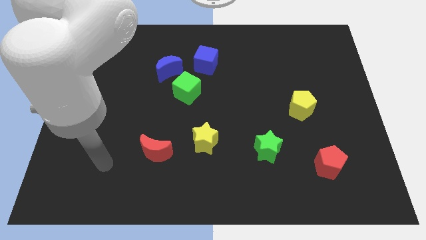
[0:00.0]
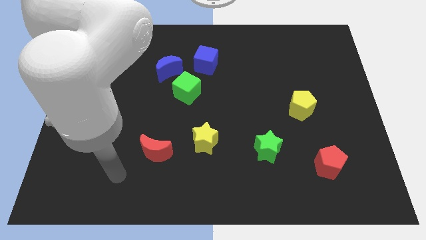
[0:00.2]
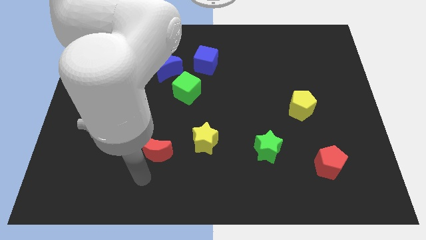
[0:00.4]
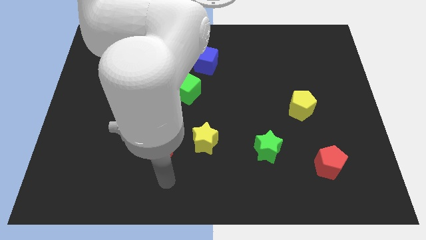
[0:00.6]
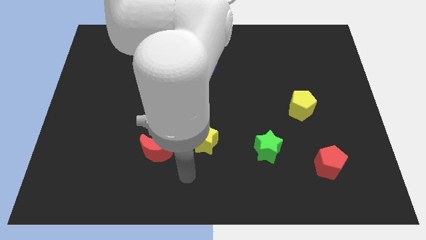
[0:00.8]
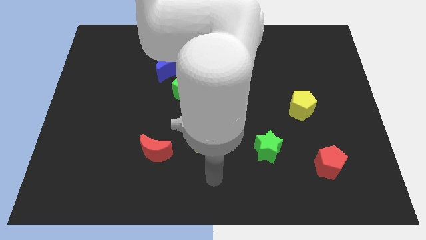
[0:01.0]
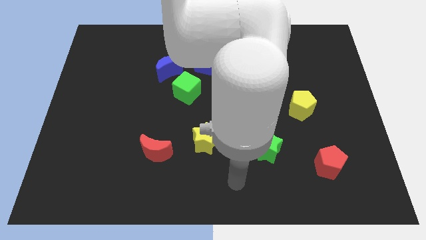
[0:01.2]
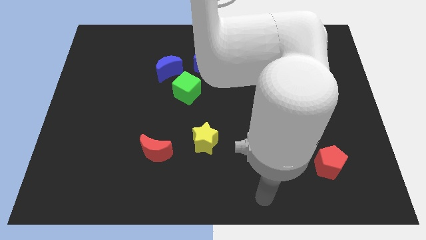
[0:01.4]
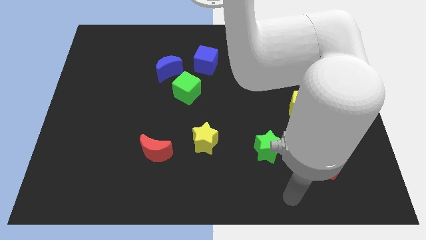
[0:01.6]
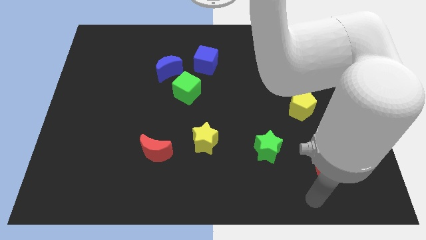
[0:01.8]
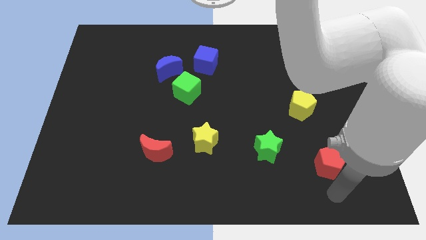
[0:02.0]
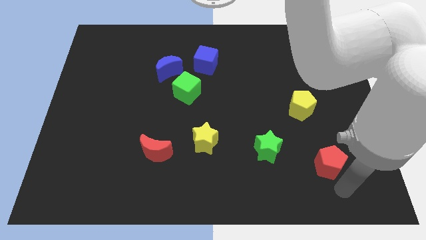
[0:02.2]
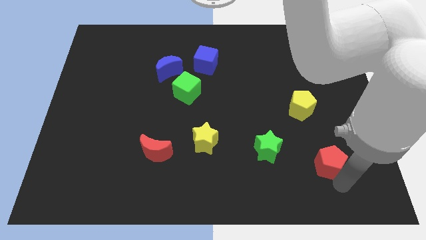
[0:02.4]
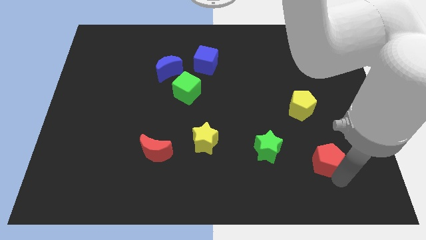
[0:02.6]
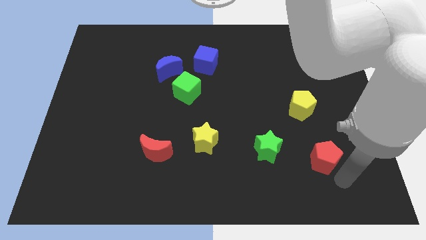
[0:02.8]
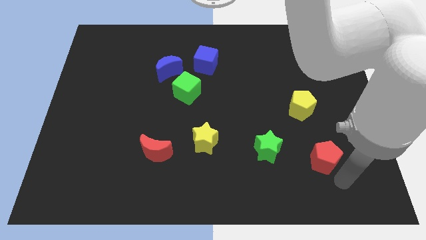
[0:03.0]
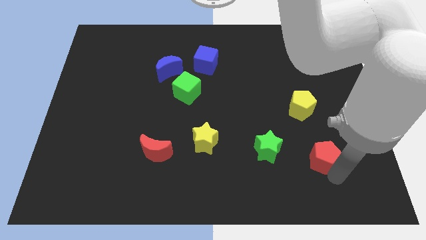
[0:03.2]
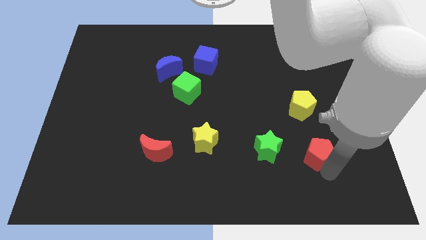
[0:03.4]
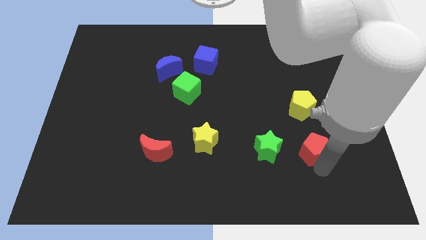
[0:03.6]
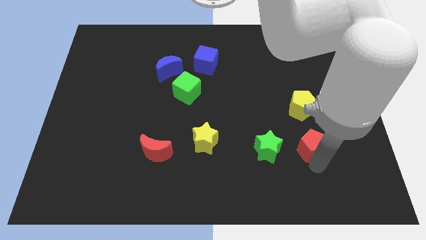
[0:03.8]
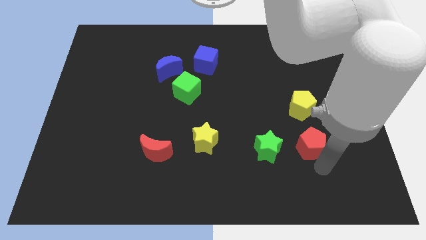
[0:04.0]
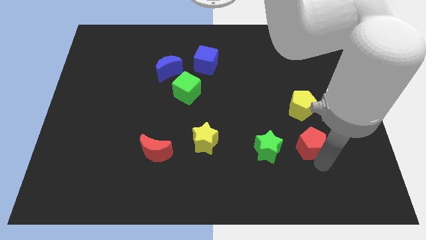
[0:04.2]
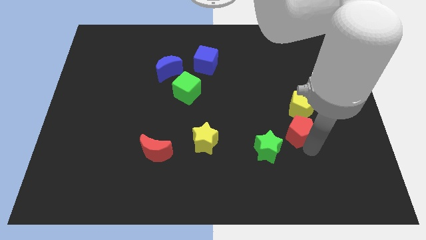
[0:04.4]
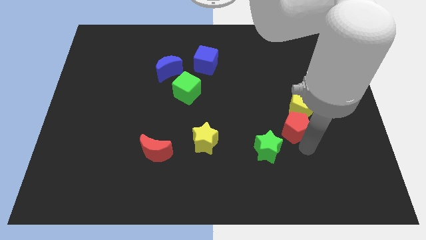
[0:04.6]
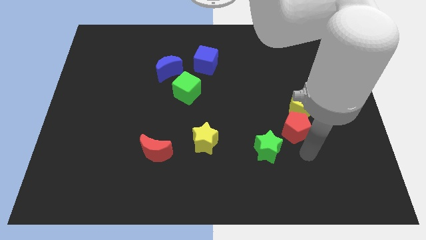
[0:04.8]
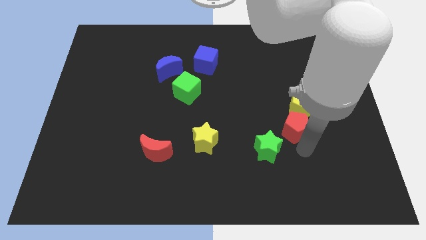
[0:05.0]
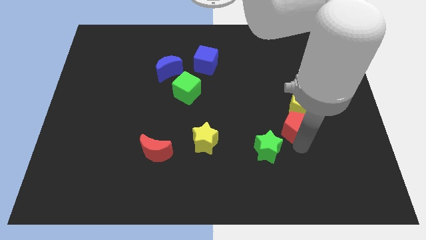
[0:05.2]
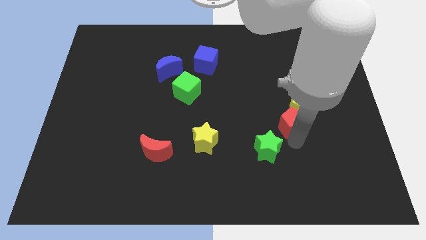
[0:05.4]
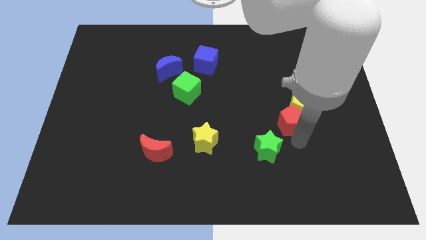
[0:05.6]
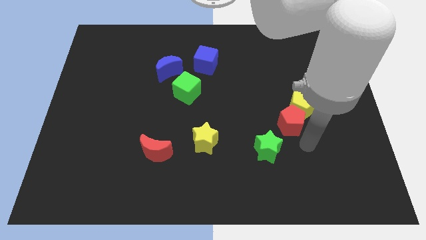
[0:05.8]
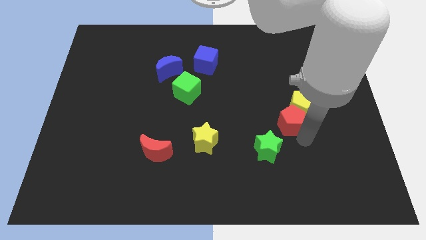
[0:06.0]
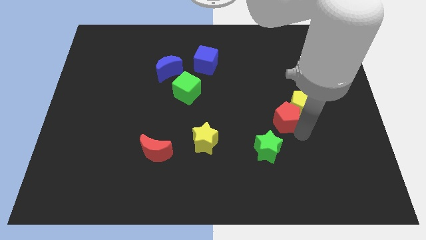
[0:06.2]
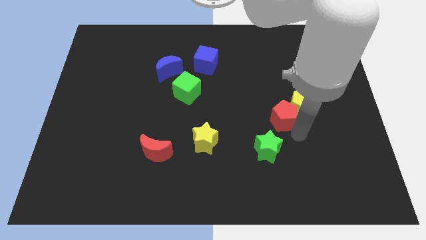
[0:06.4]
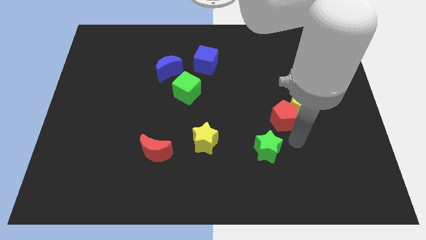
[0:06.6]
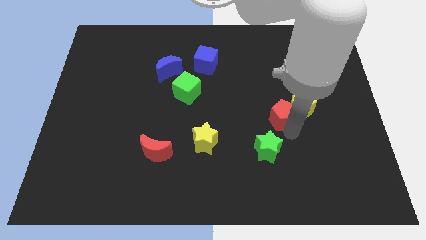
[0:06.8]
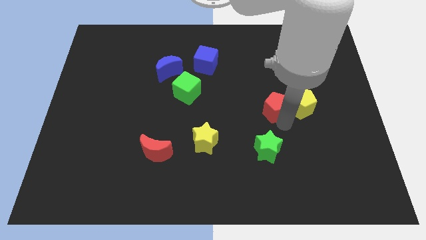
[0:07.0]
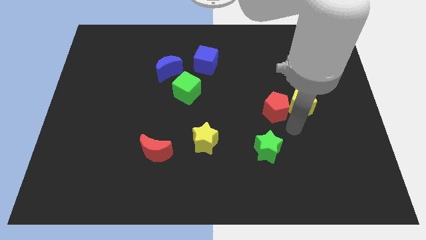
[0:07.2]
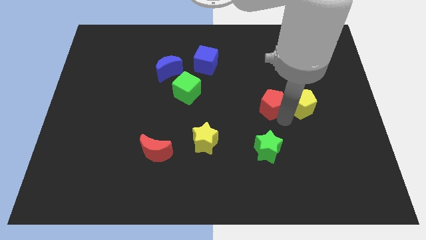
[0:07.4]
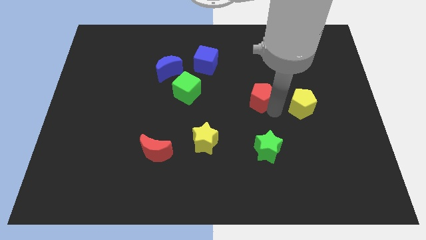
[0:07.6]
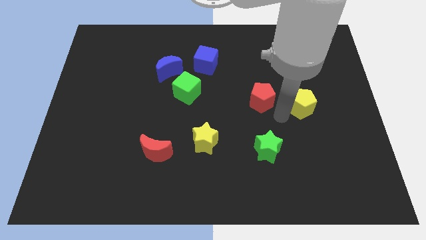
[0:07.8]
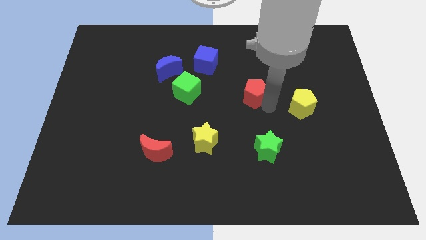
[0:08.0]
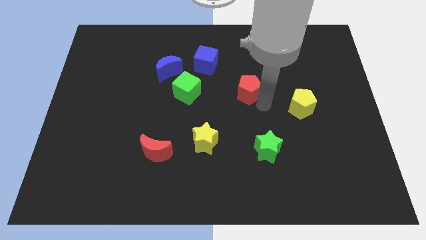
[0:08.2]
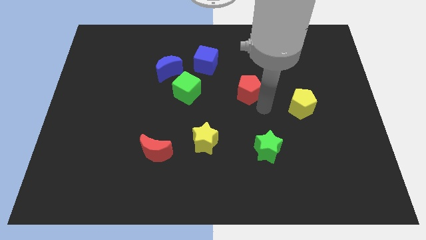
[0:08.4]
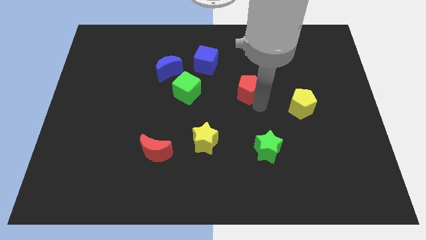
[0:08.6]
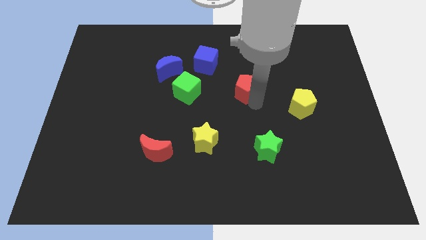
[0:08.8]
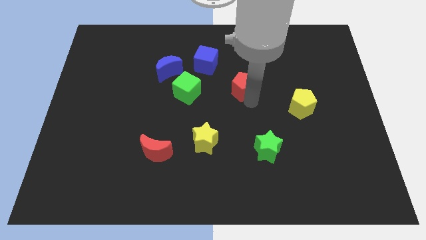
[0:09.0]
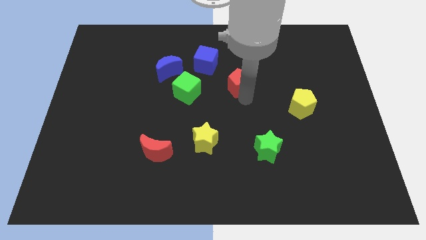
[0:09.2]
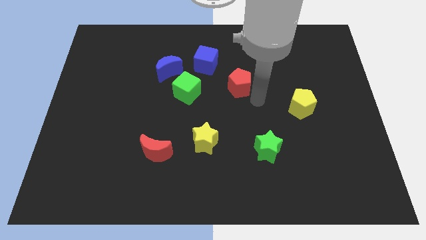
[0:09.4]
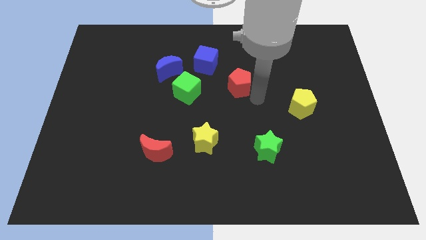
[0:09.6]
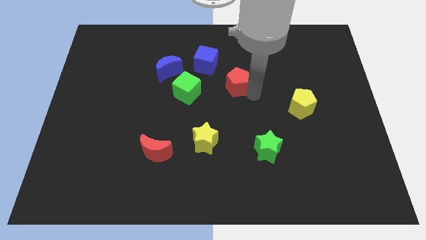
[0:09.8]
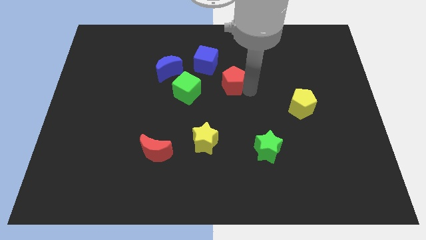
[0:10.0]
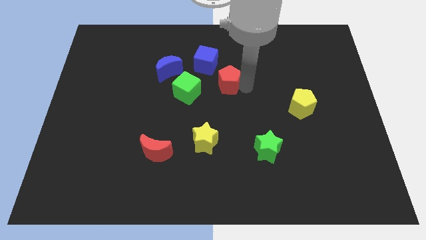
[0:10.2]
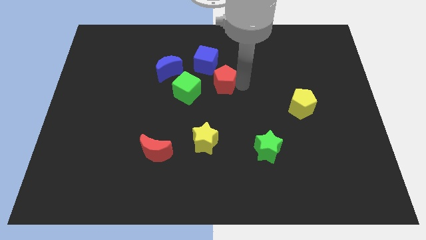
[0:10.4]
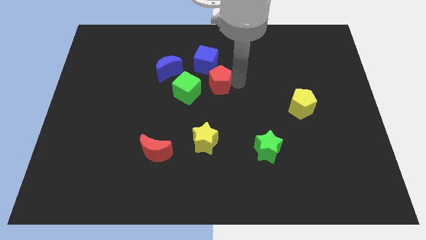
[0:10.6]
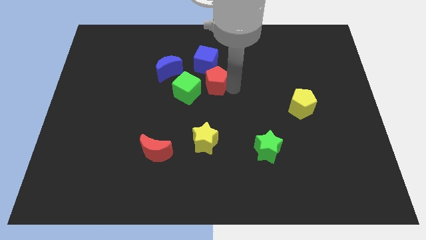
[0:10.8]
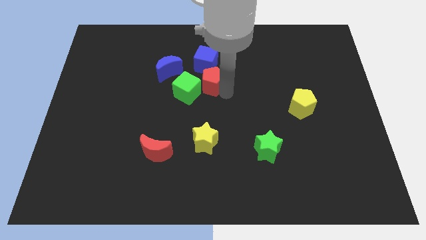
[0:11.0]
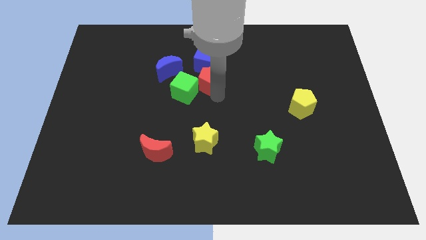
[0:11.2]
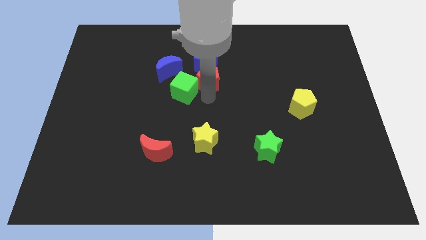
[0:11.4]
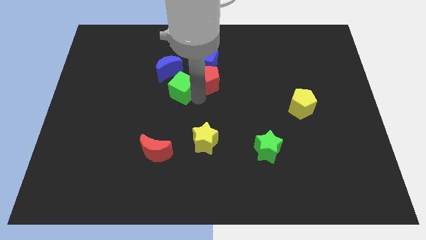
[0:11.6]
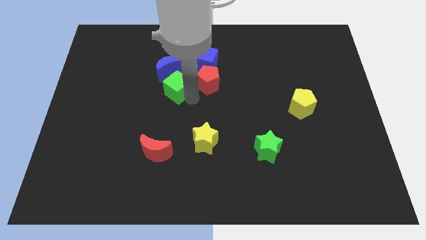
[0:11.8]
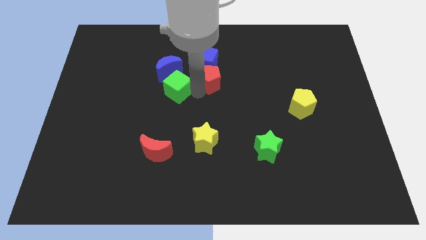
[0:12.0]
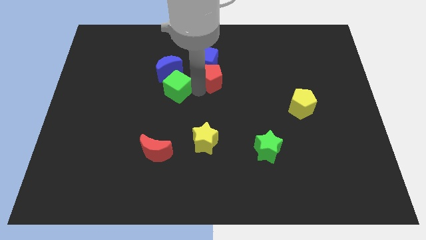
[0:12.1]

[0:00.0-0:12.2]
push the red pentagon to the blue cube

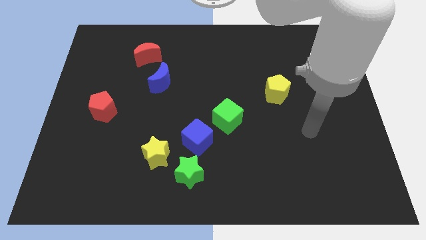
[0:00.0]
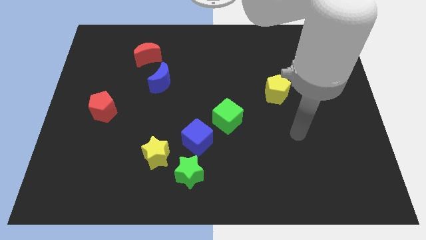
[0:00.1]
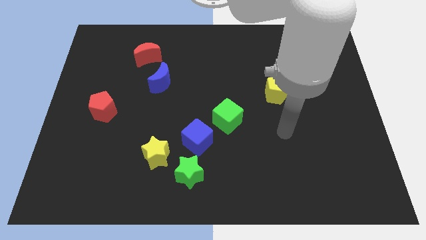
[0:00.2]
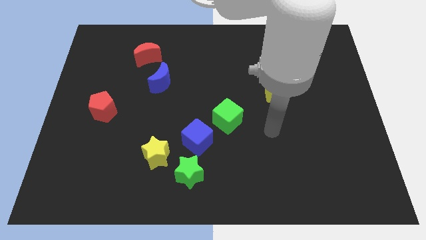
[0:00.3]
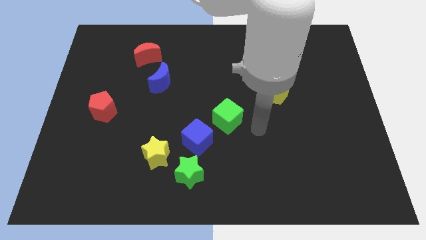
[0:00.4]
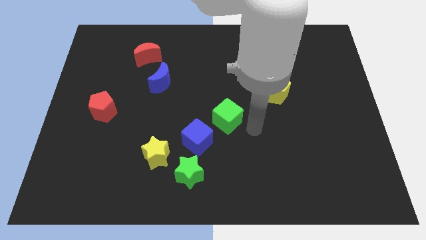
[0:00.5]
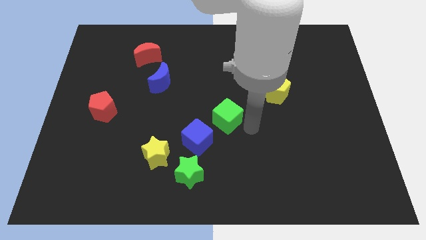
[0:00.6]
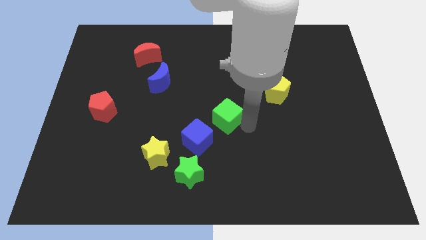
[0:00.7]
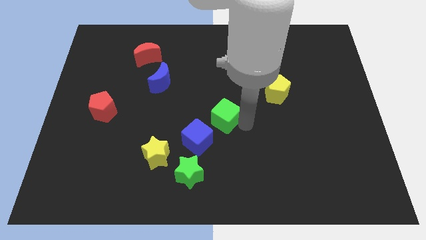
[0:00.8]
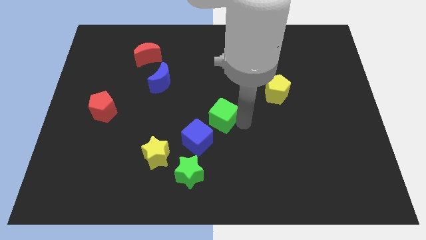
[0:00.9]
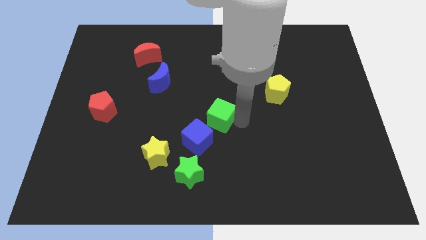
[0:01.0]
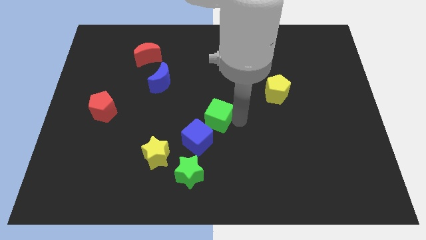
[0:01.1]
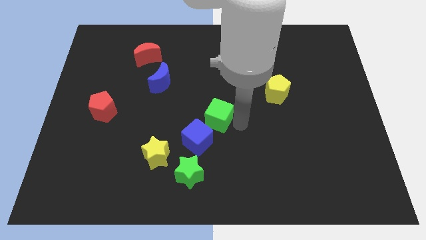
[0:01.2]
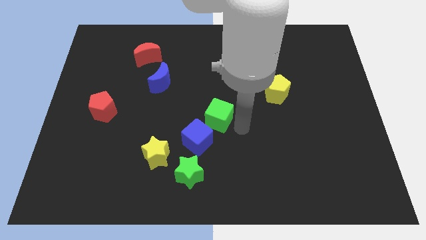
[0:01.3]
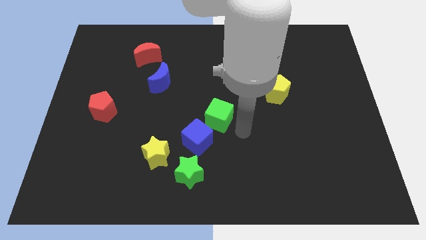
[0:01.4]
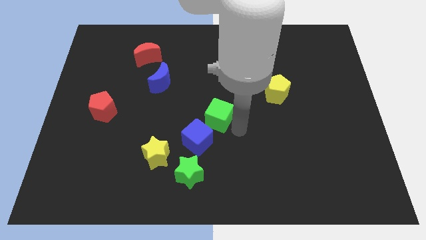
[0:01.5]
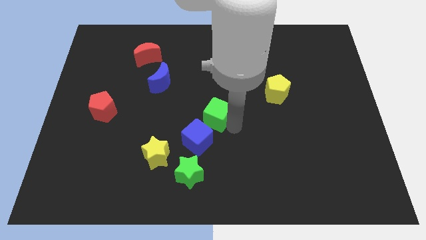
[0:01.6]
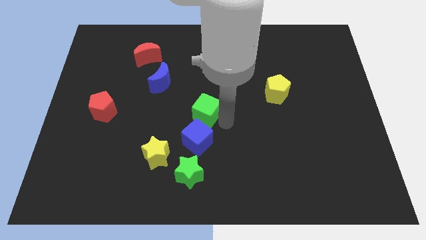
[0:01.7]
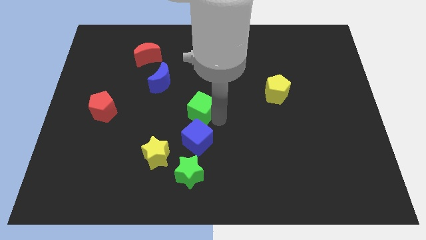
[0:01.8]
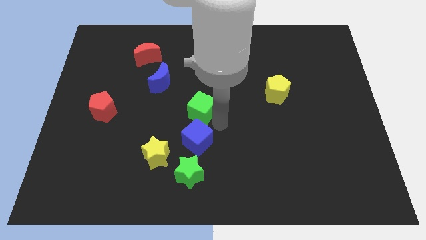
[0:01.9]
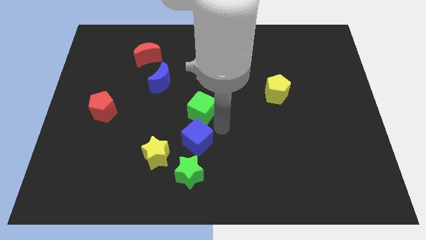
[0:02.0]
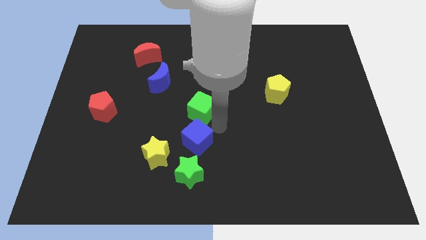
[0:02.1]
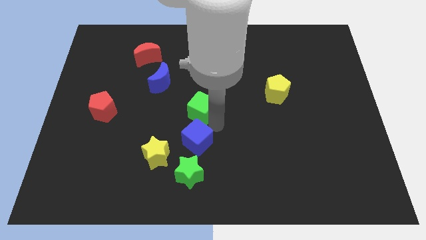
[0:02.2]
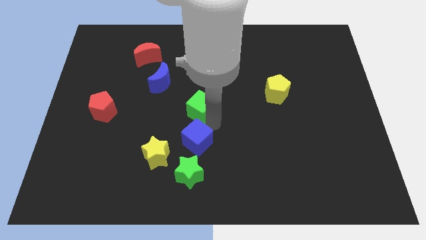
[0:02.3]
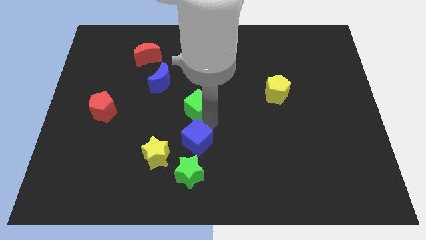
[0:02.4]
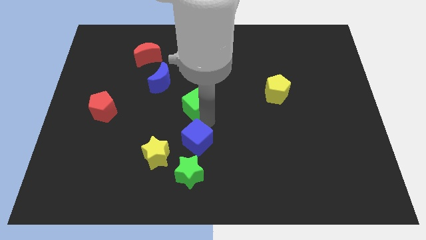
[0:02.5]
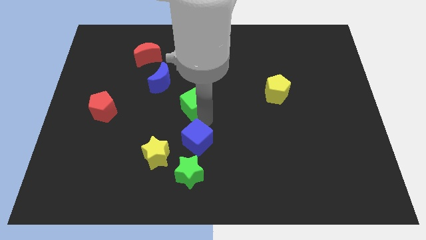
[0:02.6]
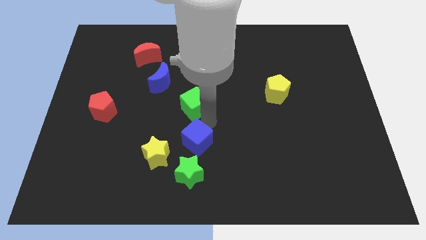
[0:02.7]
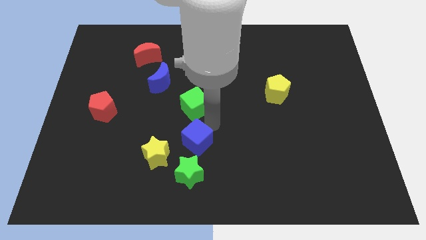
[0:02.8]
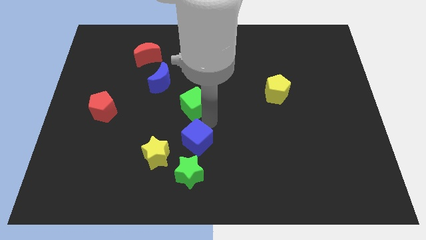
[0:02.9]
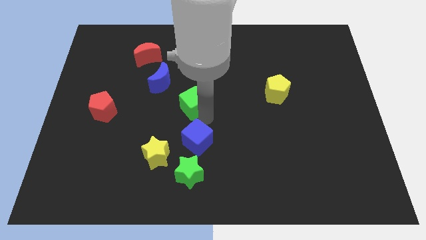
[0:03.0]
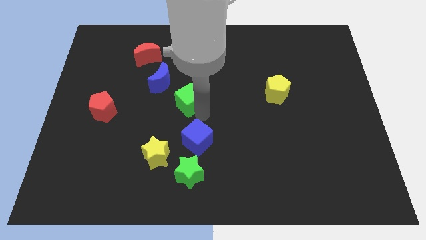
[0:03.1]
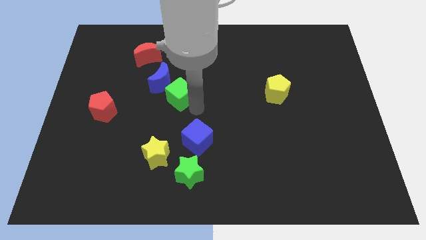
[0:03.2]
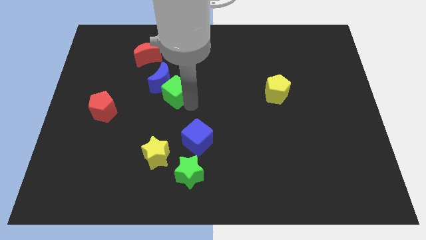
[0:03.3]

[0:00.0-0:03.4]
put the green cube to the blue moon
